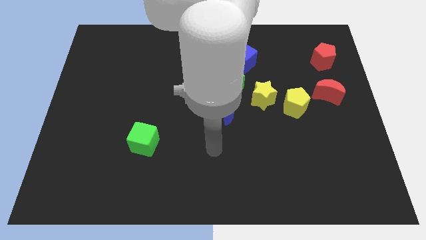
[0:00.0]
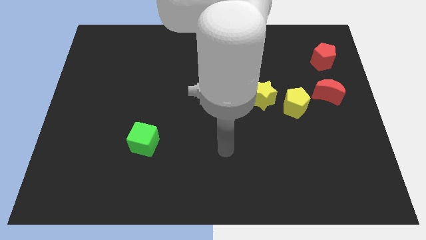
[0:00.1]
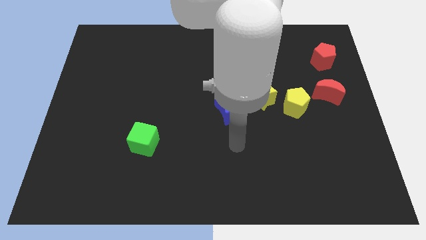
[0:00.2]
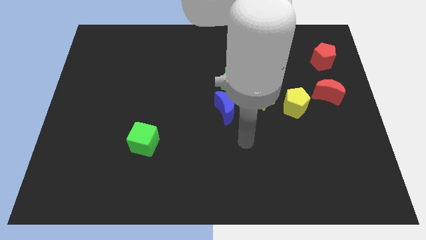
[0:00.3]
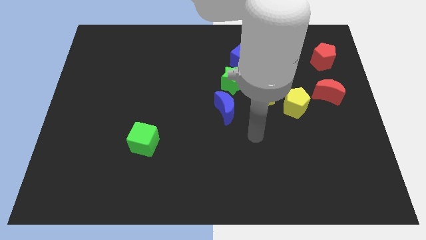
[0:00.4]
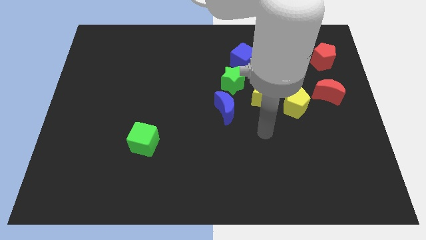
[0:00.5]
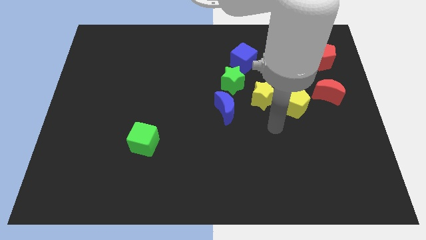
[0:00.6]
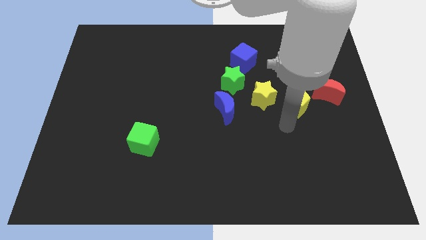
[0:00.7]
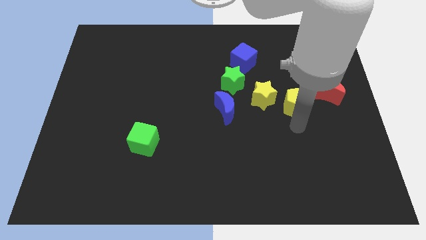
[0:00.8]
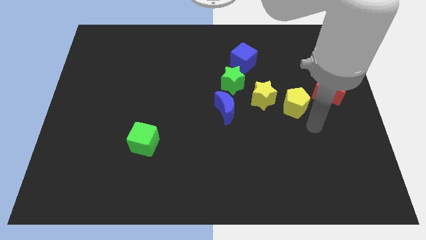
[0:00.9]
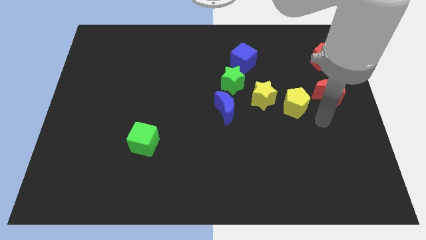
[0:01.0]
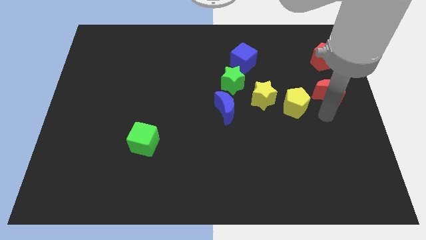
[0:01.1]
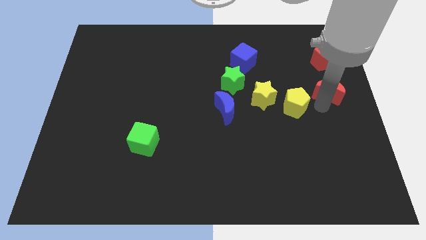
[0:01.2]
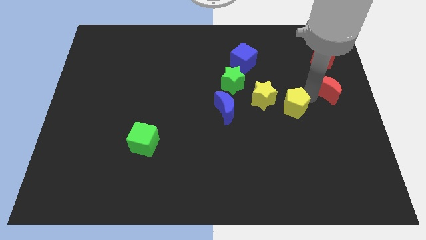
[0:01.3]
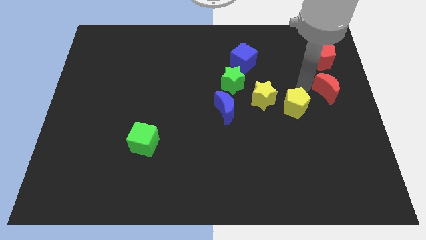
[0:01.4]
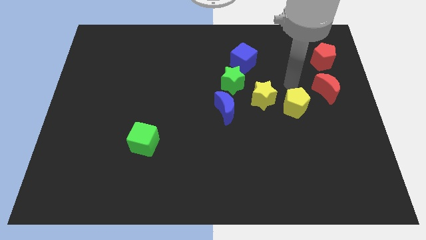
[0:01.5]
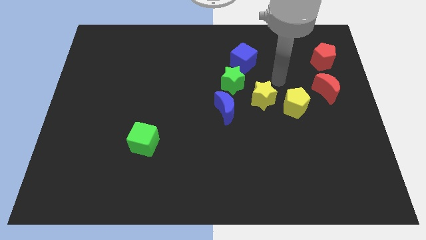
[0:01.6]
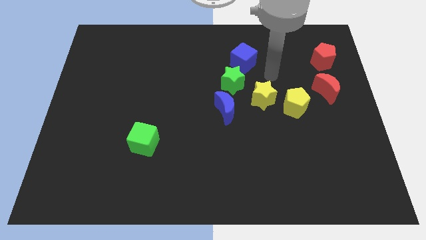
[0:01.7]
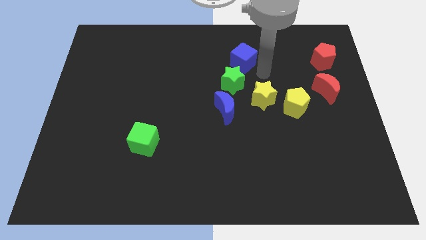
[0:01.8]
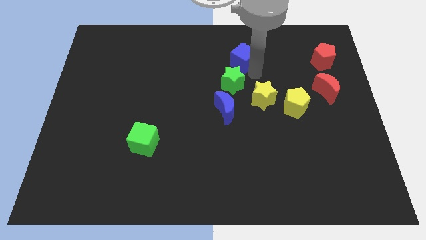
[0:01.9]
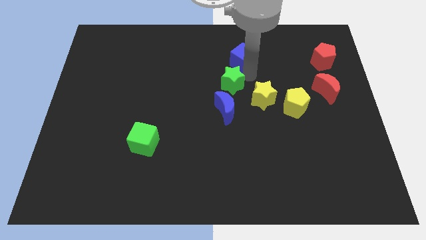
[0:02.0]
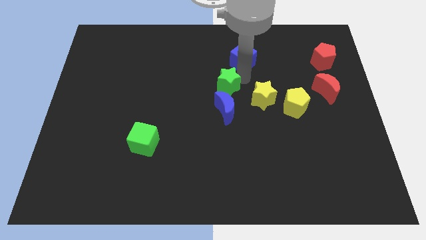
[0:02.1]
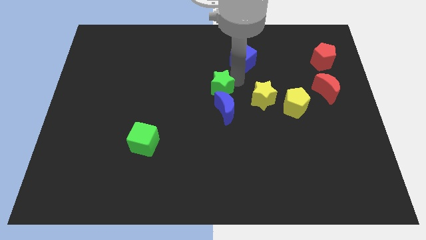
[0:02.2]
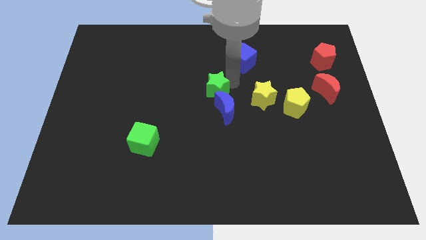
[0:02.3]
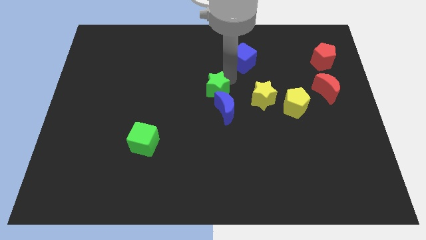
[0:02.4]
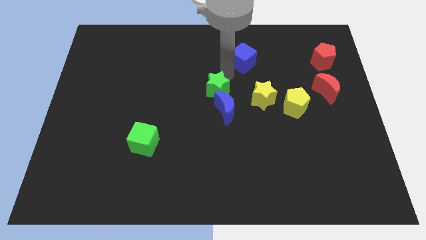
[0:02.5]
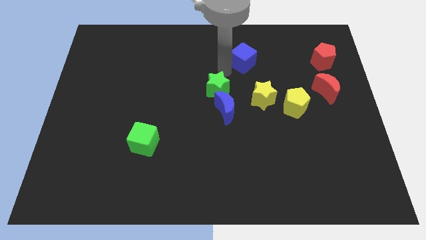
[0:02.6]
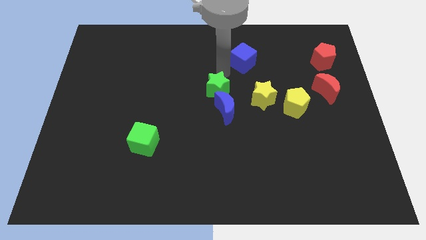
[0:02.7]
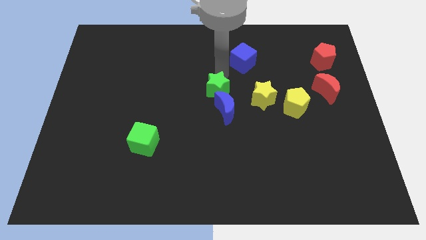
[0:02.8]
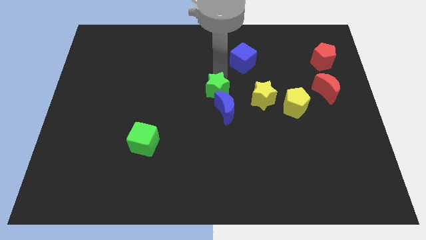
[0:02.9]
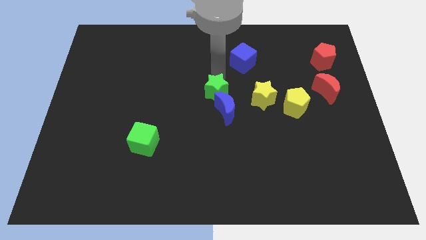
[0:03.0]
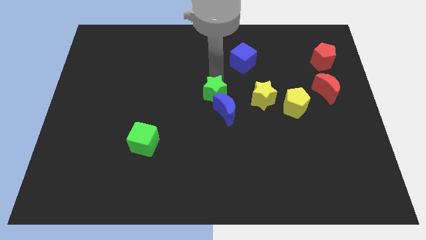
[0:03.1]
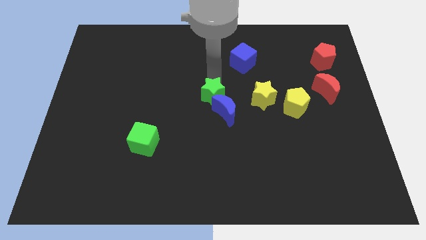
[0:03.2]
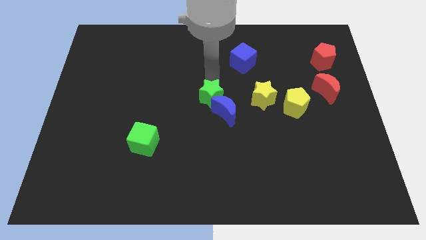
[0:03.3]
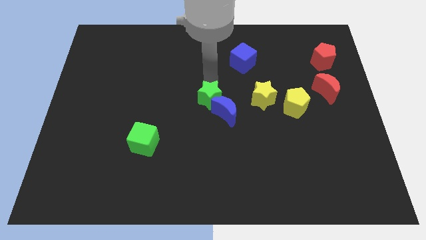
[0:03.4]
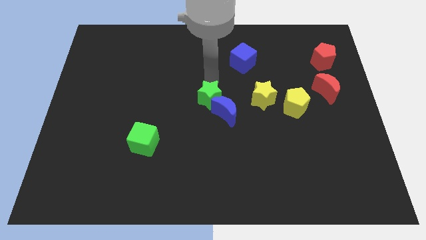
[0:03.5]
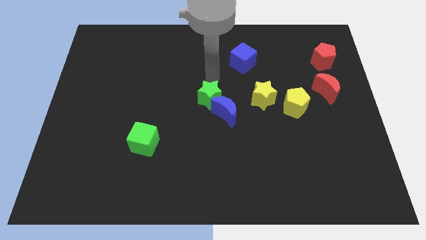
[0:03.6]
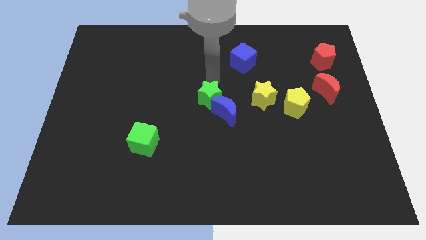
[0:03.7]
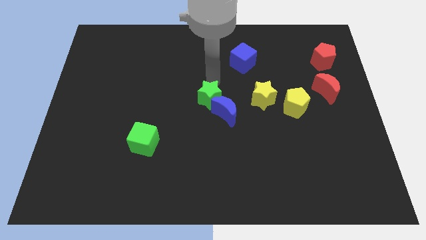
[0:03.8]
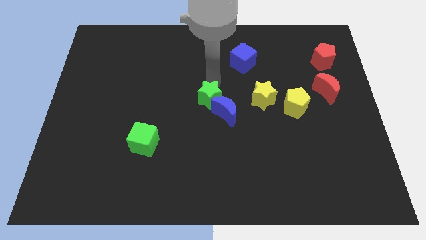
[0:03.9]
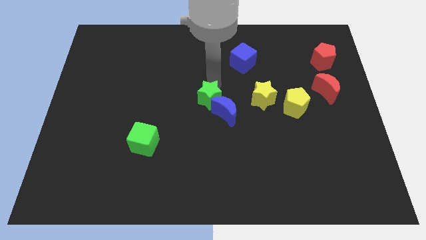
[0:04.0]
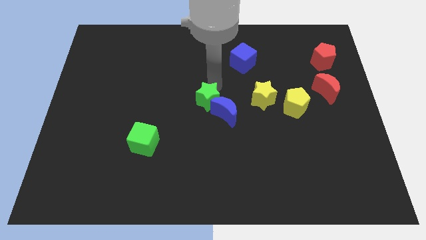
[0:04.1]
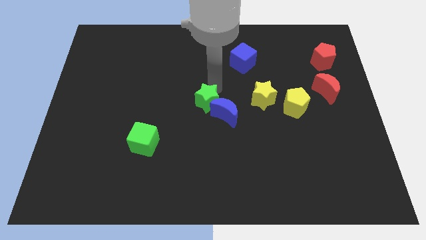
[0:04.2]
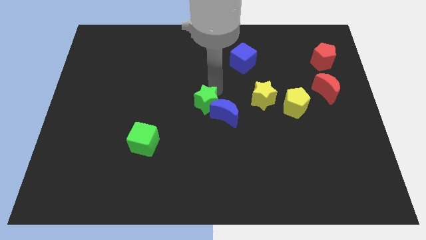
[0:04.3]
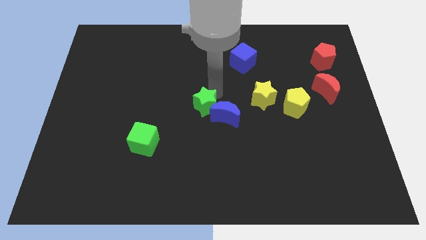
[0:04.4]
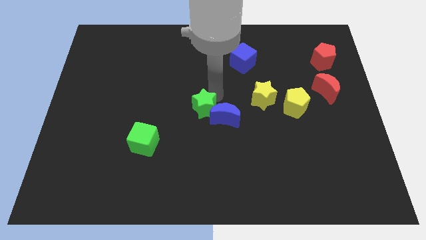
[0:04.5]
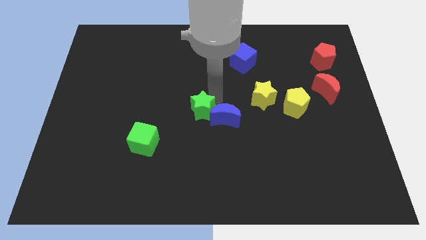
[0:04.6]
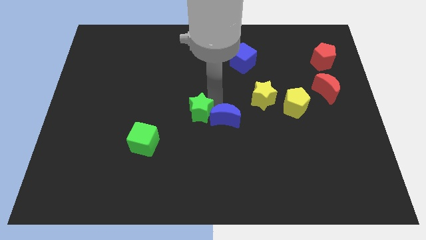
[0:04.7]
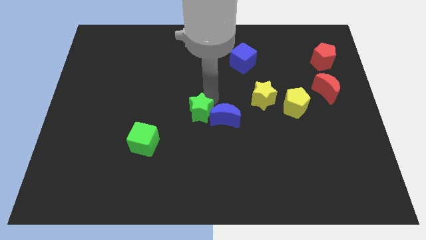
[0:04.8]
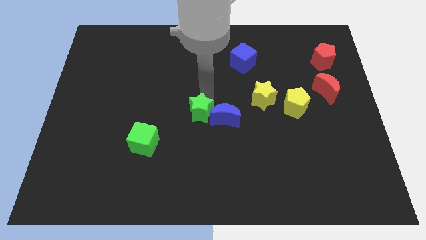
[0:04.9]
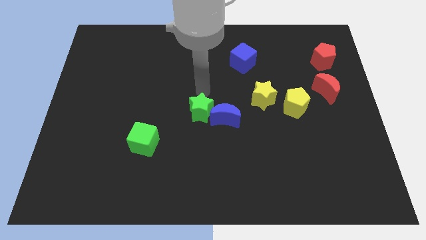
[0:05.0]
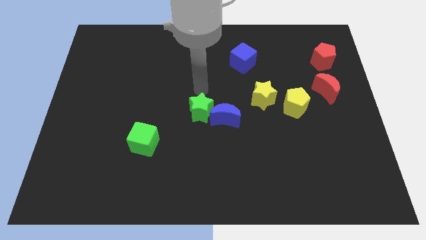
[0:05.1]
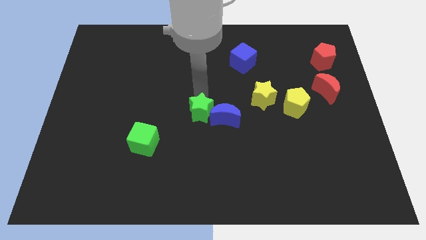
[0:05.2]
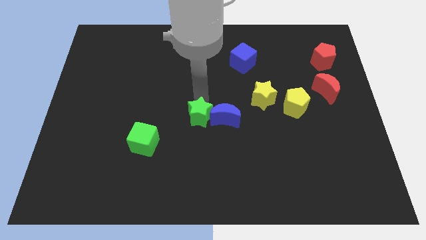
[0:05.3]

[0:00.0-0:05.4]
push the green star to the bottom left of the blue moon
